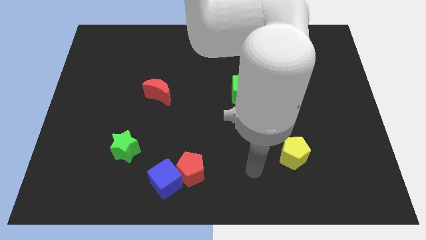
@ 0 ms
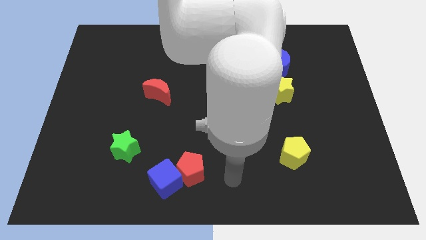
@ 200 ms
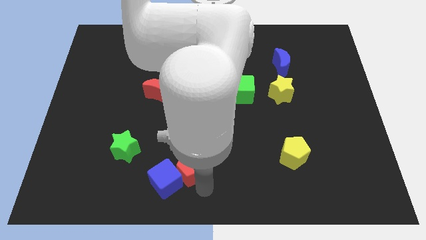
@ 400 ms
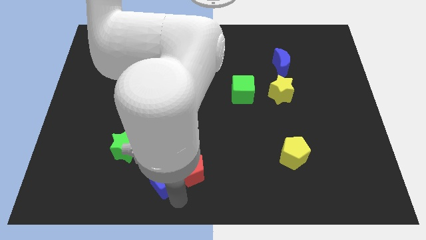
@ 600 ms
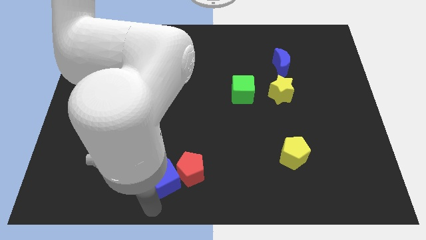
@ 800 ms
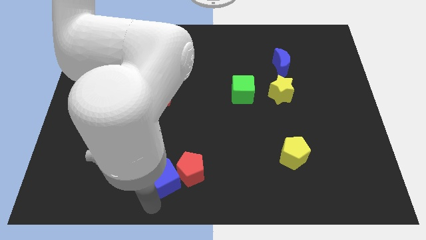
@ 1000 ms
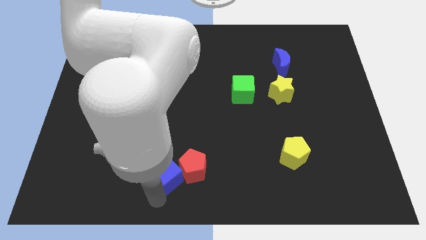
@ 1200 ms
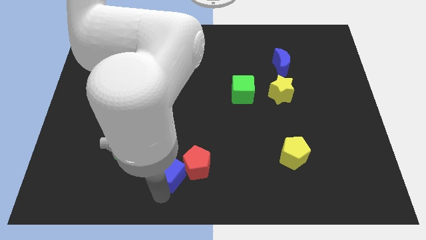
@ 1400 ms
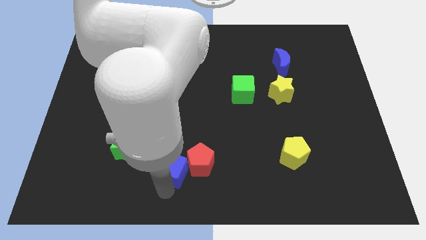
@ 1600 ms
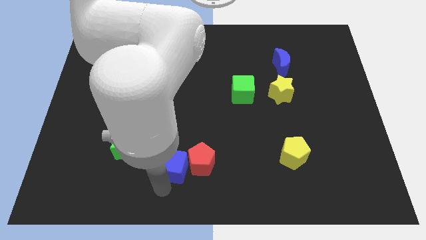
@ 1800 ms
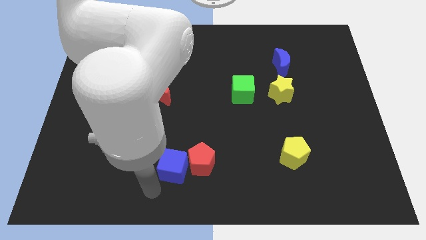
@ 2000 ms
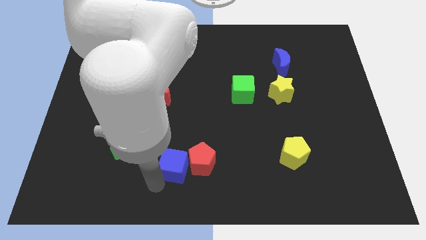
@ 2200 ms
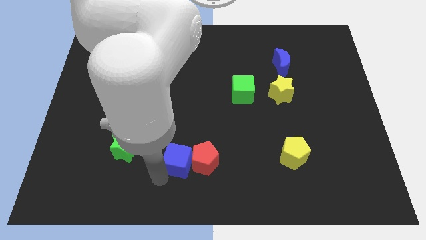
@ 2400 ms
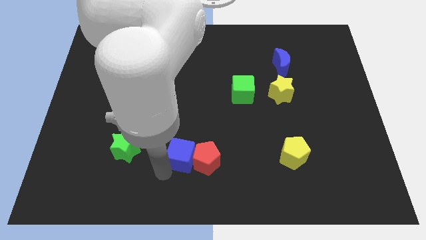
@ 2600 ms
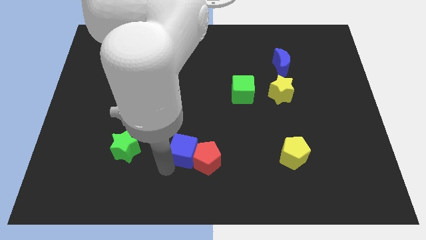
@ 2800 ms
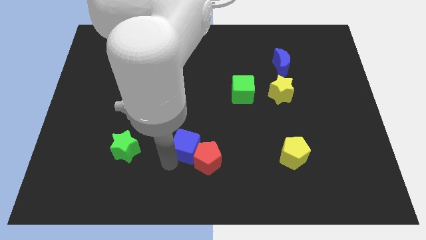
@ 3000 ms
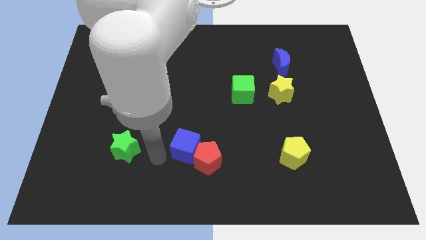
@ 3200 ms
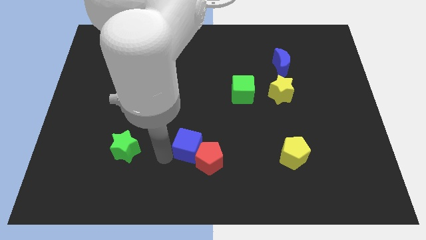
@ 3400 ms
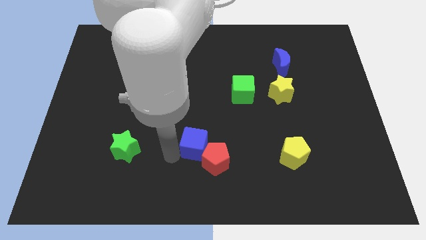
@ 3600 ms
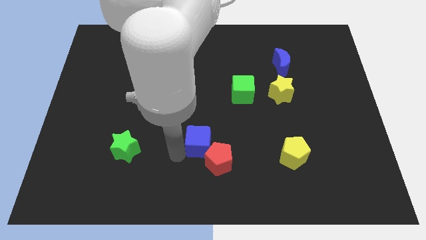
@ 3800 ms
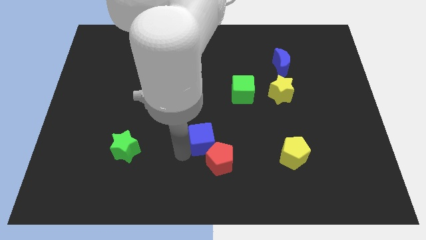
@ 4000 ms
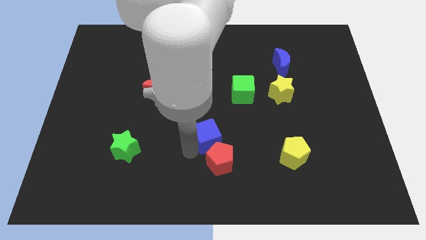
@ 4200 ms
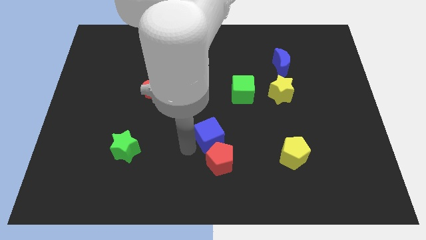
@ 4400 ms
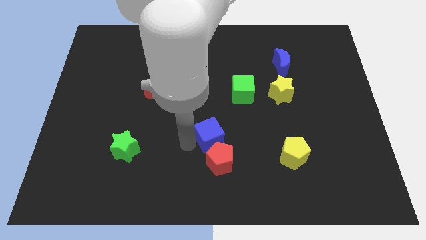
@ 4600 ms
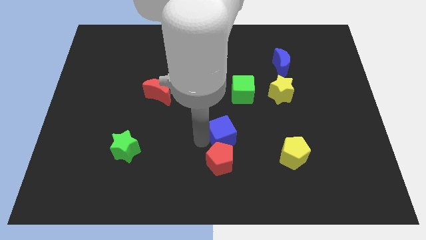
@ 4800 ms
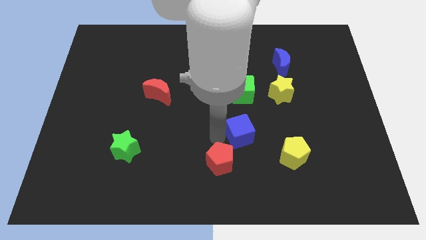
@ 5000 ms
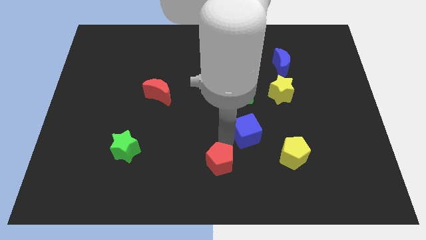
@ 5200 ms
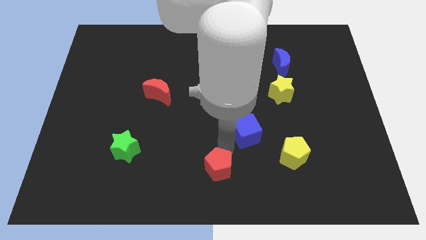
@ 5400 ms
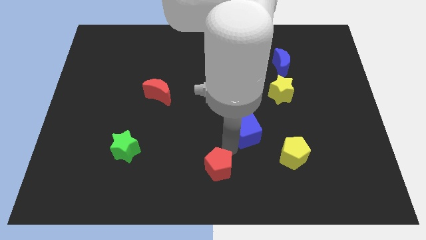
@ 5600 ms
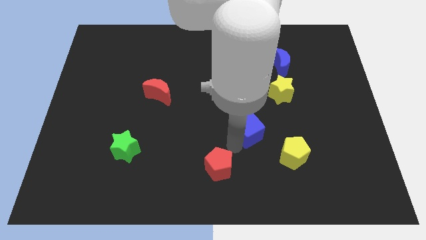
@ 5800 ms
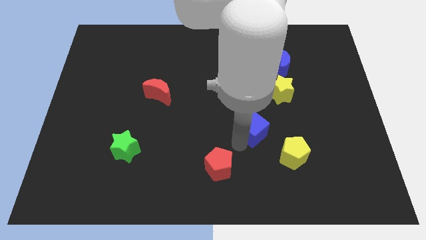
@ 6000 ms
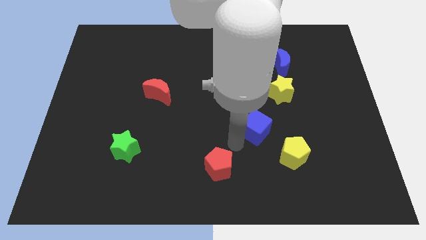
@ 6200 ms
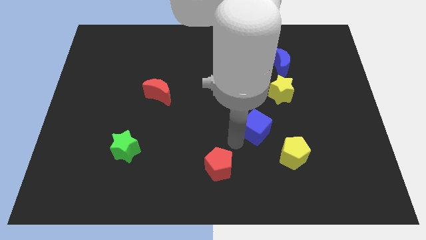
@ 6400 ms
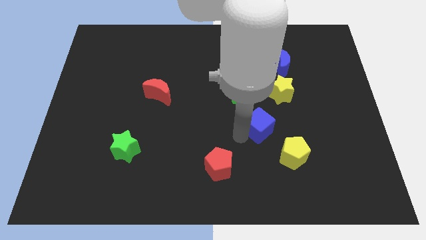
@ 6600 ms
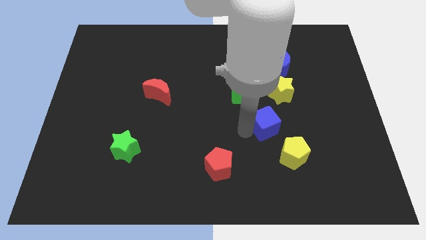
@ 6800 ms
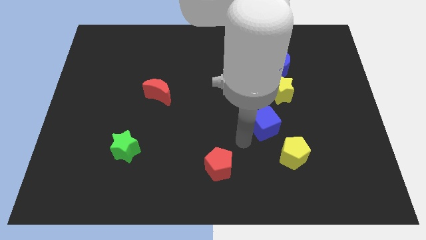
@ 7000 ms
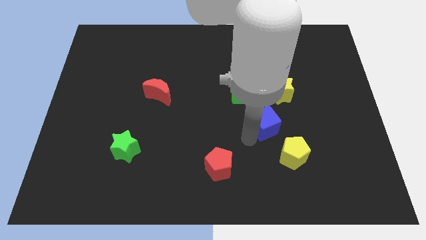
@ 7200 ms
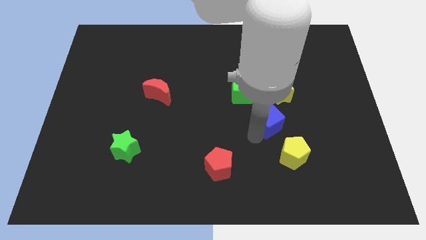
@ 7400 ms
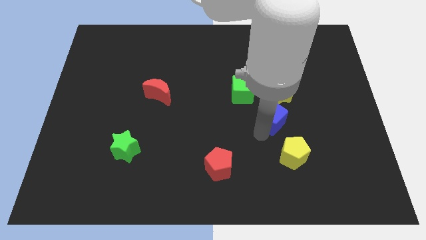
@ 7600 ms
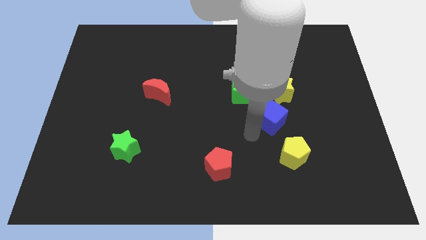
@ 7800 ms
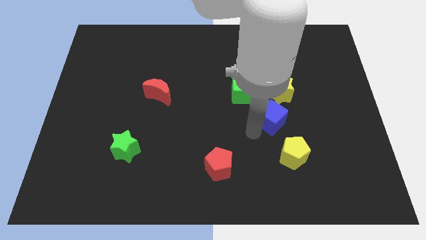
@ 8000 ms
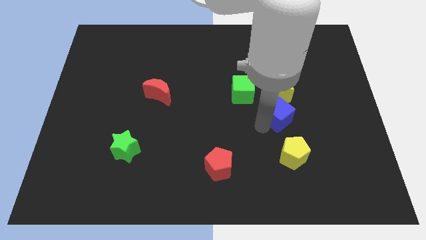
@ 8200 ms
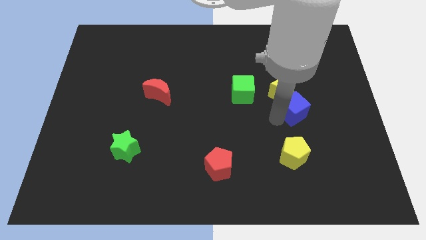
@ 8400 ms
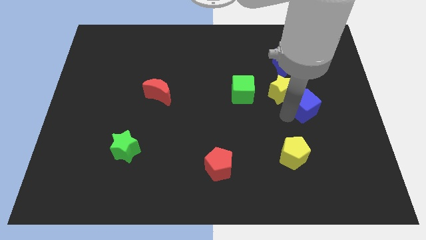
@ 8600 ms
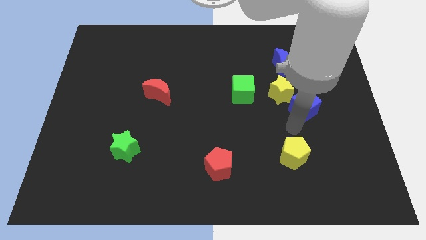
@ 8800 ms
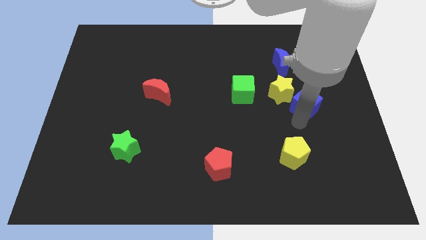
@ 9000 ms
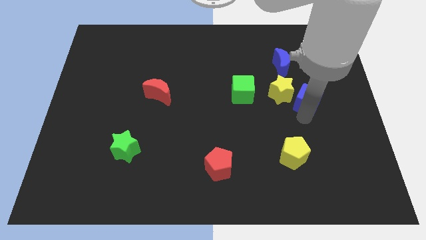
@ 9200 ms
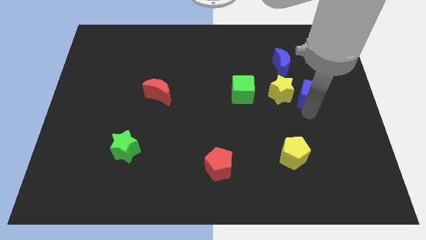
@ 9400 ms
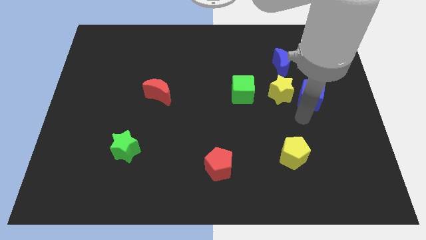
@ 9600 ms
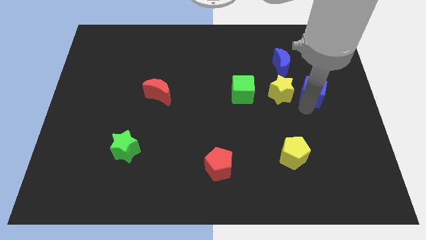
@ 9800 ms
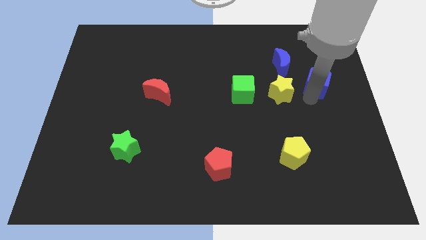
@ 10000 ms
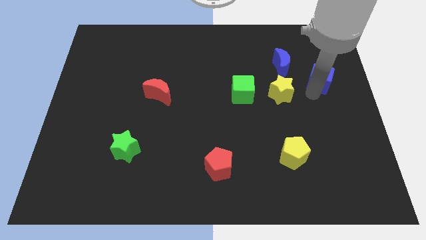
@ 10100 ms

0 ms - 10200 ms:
slide the blue cube to the right of the blue moon

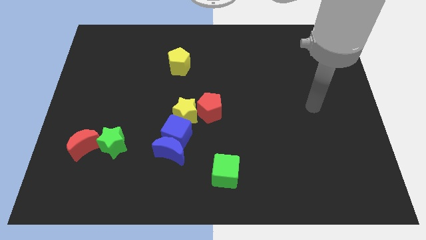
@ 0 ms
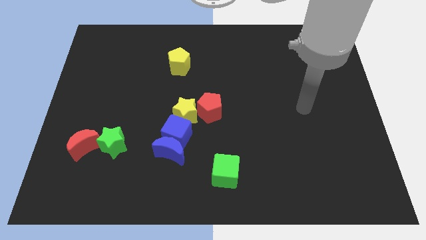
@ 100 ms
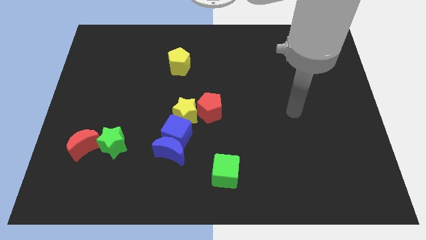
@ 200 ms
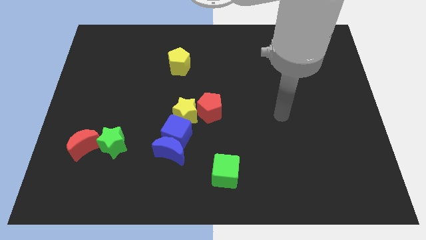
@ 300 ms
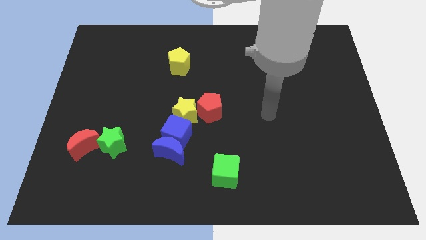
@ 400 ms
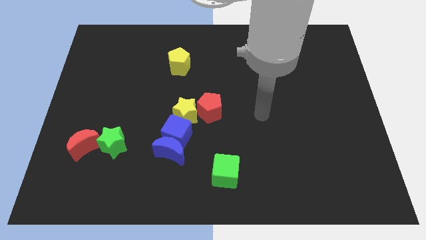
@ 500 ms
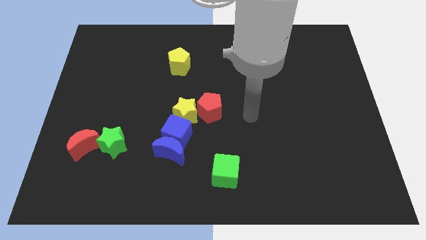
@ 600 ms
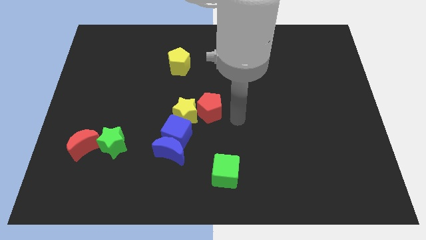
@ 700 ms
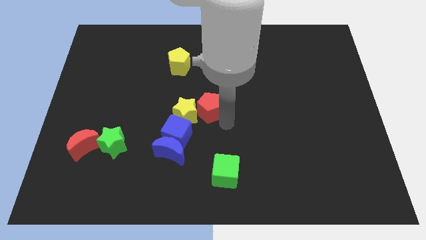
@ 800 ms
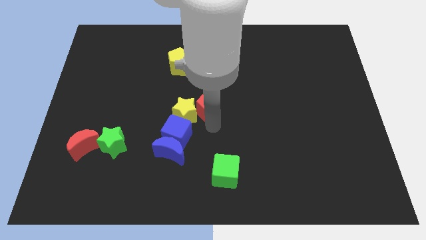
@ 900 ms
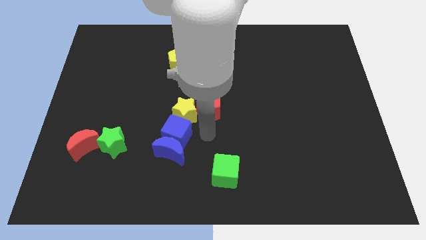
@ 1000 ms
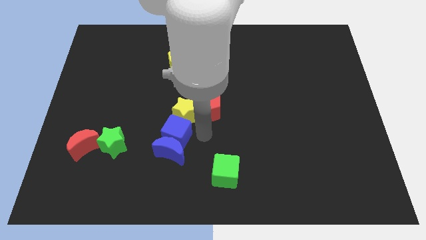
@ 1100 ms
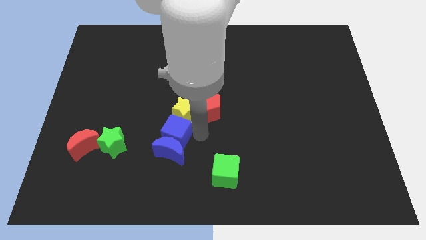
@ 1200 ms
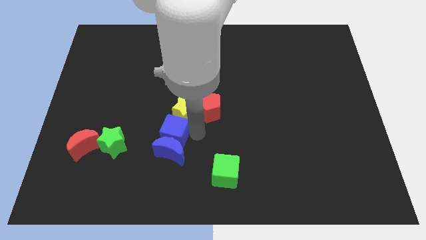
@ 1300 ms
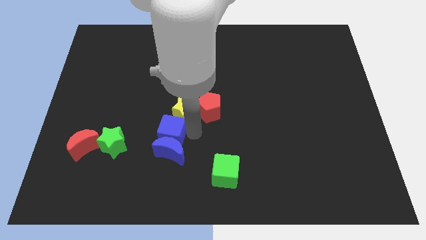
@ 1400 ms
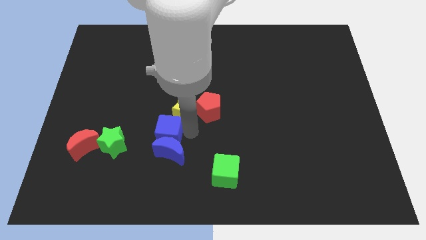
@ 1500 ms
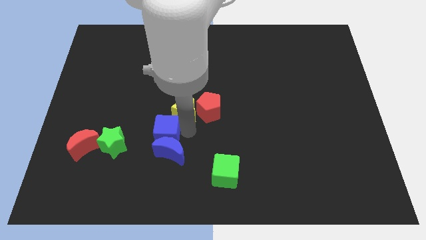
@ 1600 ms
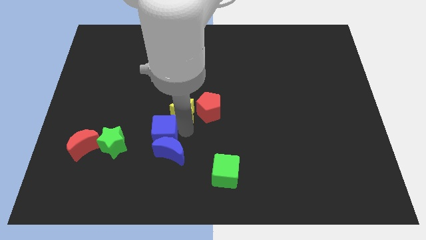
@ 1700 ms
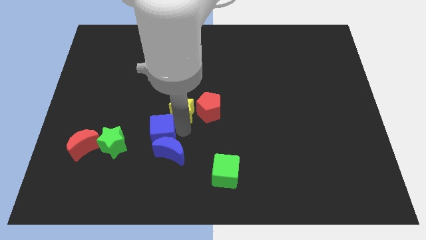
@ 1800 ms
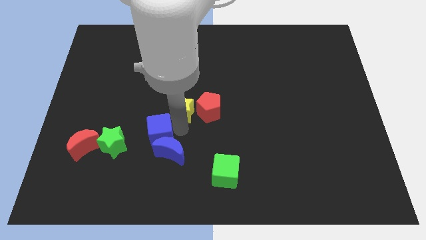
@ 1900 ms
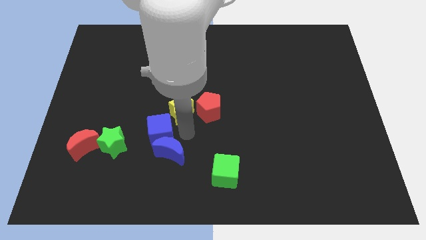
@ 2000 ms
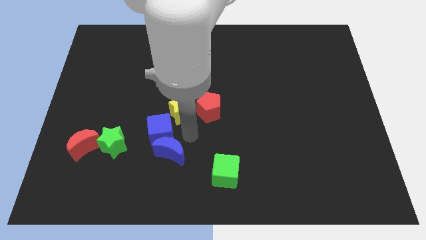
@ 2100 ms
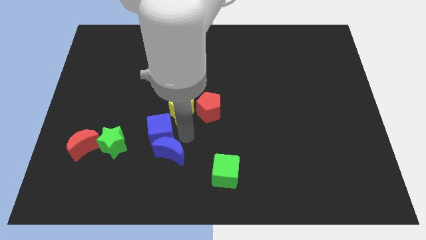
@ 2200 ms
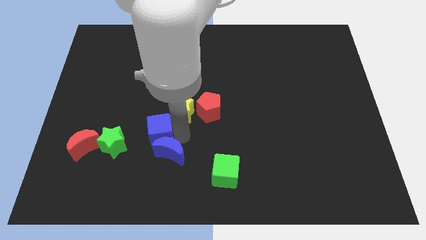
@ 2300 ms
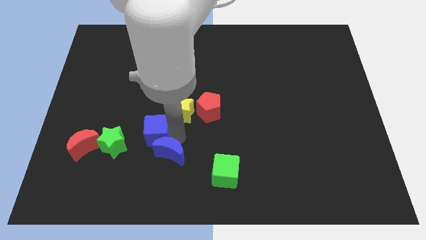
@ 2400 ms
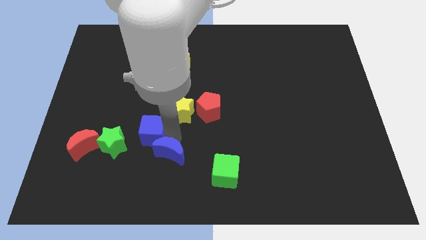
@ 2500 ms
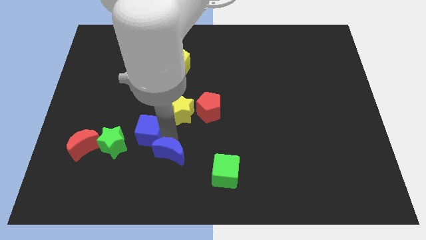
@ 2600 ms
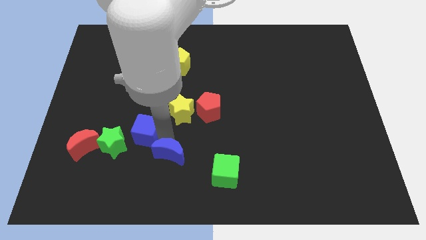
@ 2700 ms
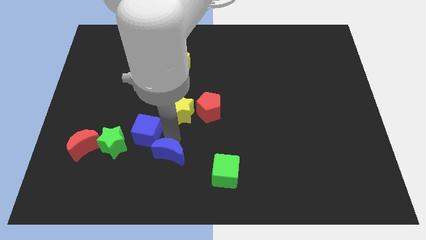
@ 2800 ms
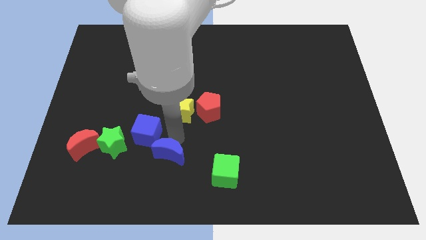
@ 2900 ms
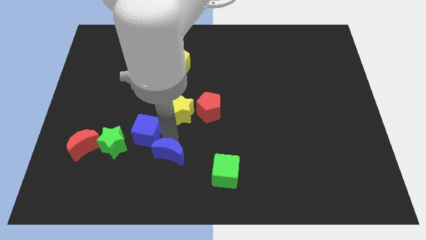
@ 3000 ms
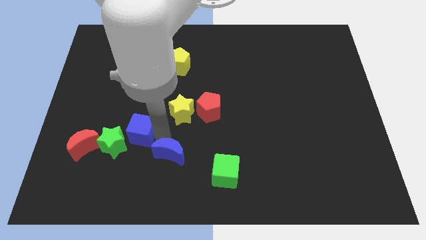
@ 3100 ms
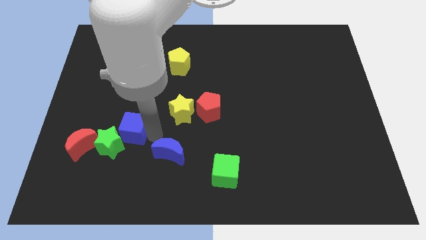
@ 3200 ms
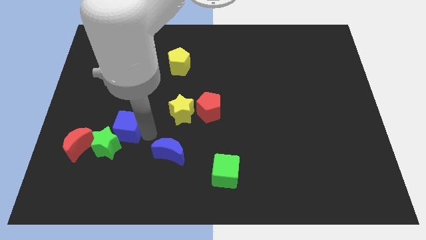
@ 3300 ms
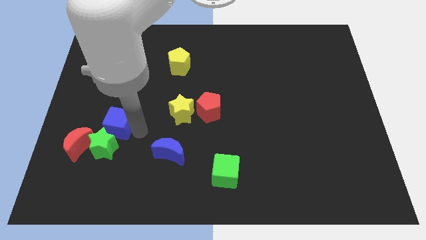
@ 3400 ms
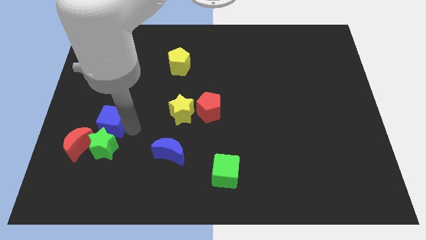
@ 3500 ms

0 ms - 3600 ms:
put the blue cube diagonally up and to the left of the green star

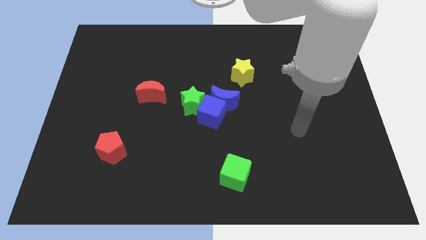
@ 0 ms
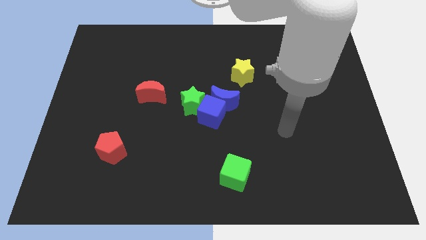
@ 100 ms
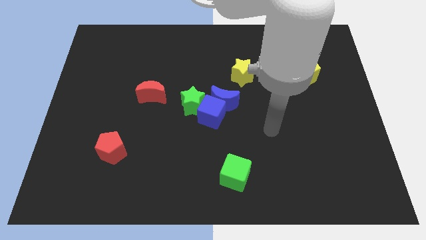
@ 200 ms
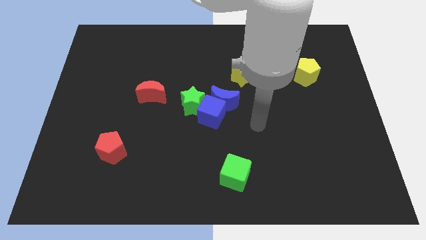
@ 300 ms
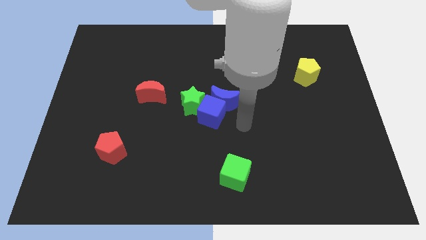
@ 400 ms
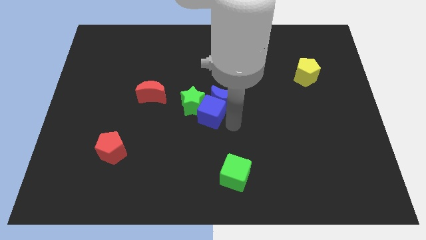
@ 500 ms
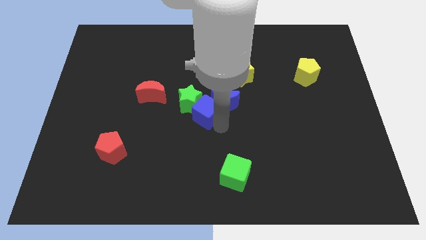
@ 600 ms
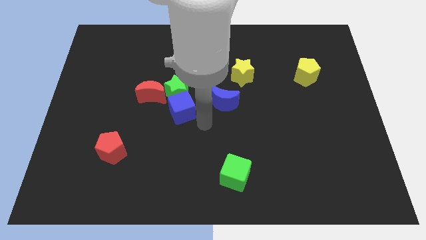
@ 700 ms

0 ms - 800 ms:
put the green star to the top right side of the red moon
